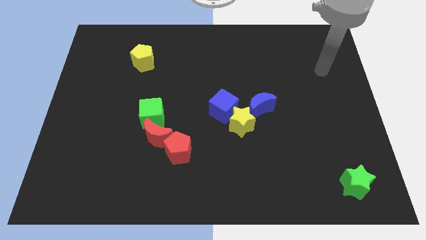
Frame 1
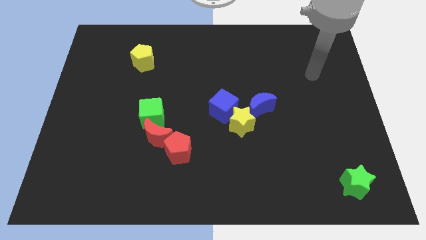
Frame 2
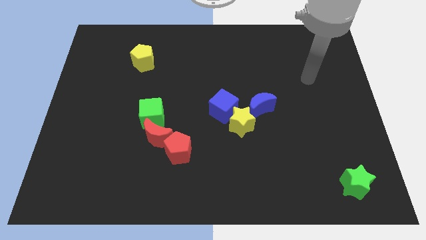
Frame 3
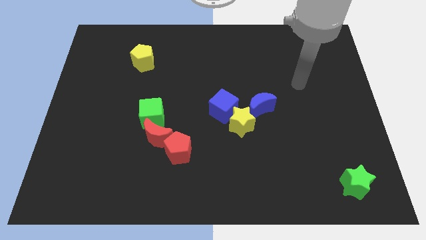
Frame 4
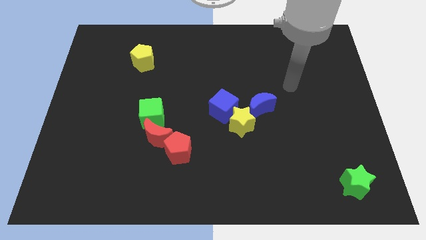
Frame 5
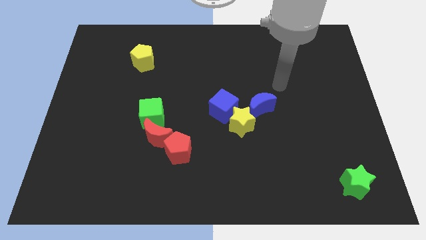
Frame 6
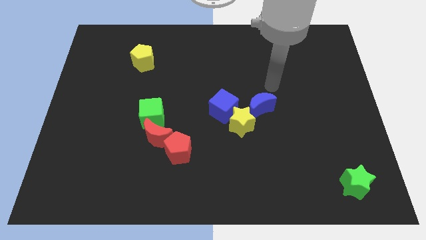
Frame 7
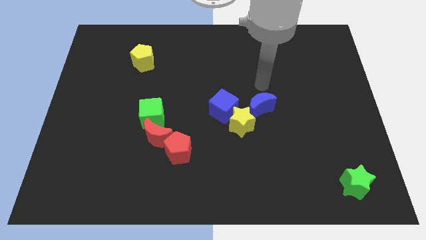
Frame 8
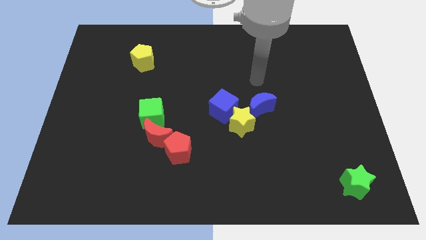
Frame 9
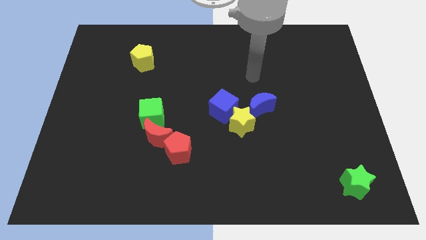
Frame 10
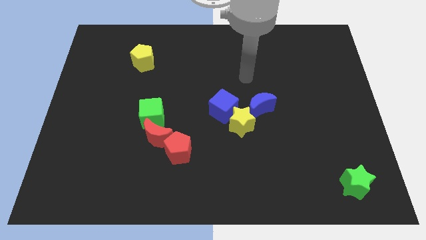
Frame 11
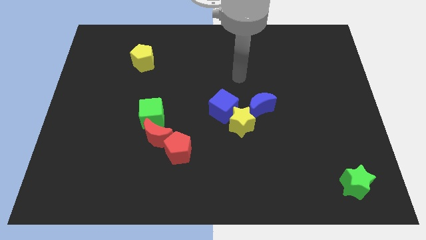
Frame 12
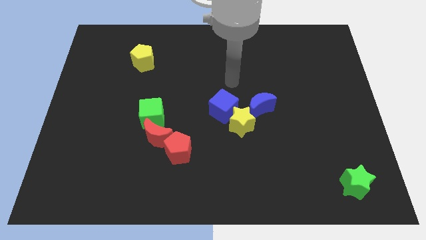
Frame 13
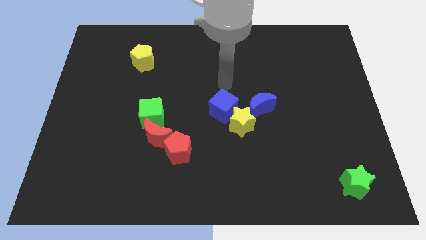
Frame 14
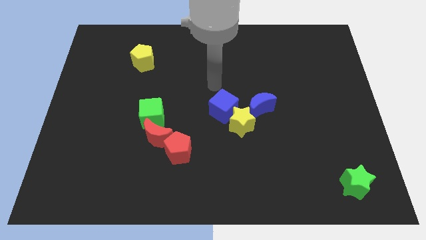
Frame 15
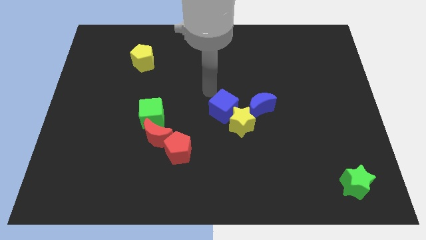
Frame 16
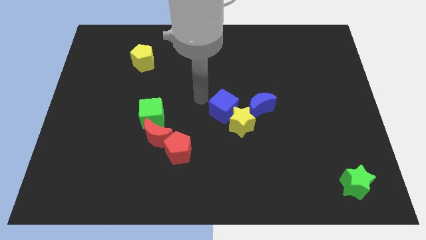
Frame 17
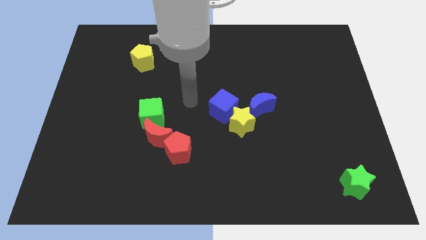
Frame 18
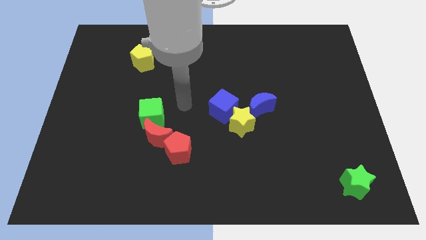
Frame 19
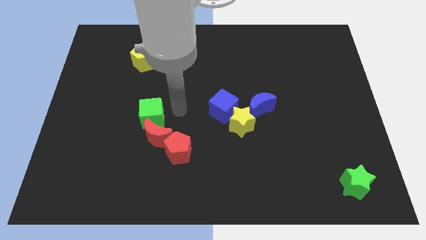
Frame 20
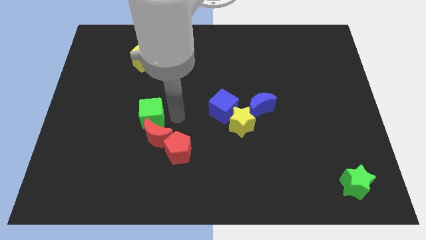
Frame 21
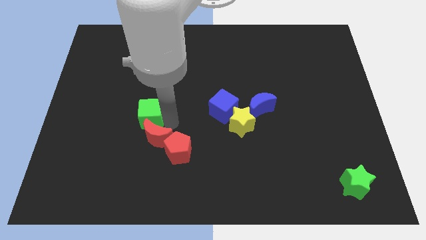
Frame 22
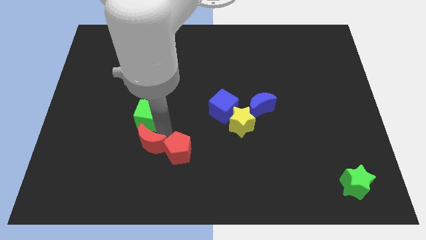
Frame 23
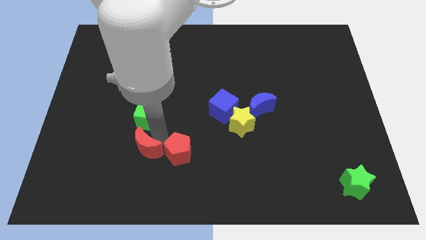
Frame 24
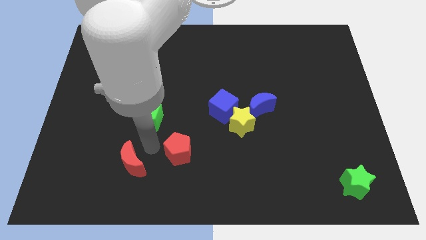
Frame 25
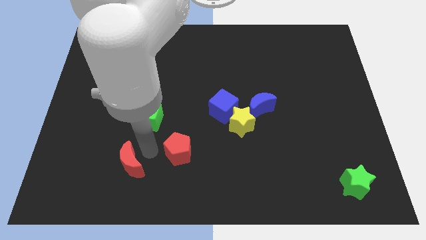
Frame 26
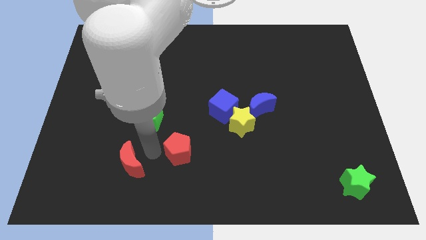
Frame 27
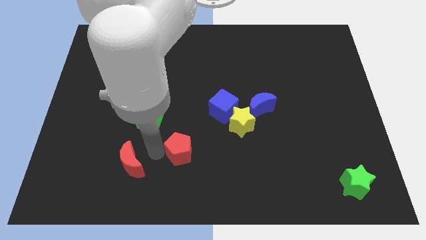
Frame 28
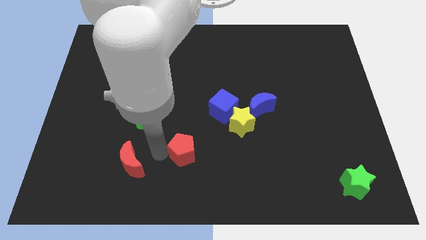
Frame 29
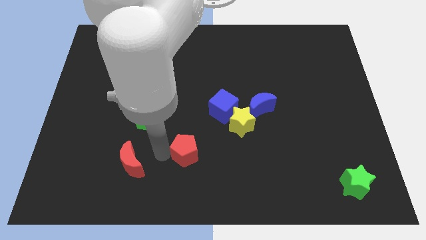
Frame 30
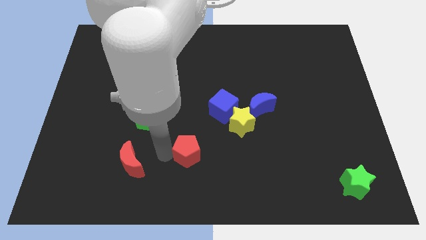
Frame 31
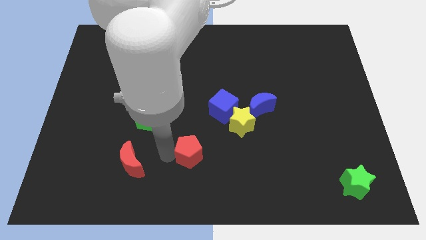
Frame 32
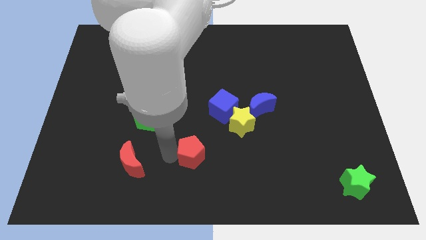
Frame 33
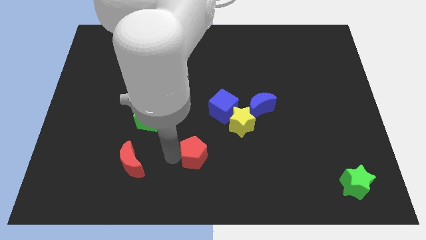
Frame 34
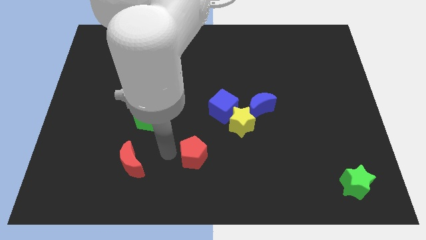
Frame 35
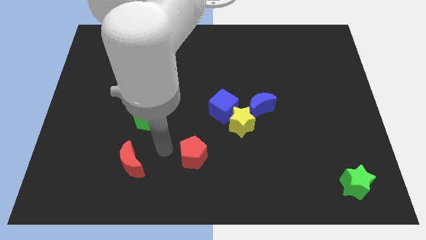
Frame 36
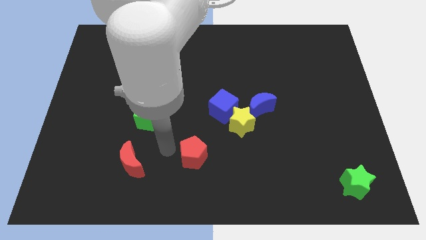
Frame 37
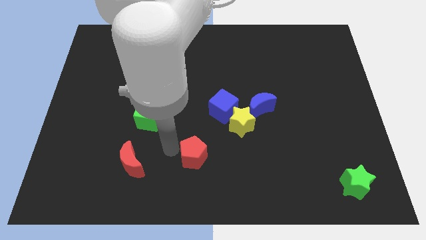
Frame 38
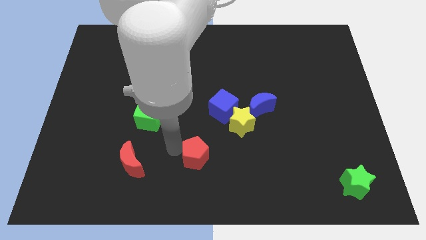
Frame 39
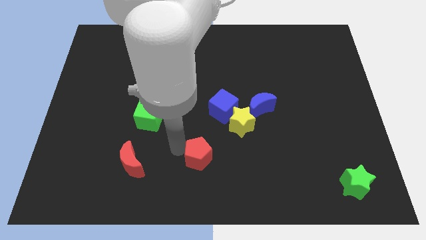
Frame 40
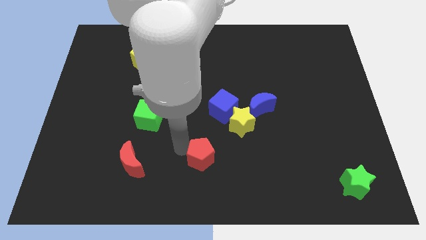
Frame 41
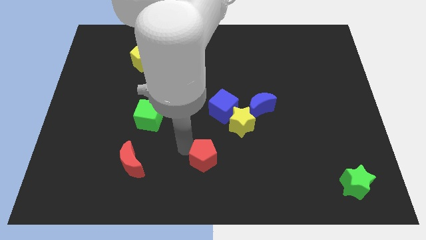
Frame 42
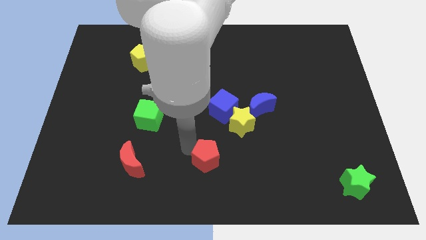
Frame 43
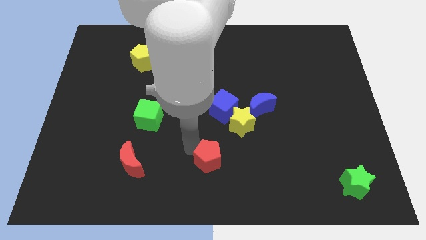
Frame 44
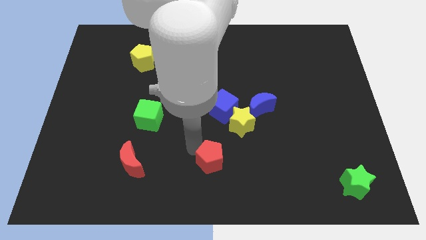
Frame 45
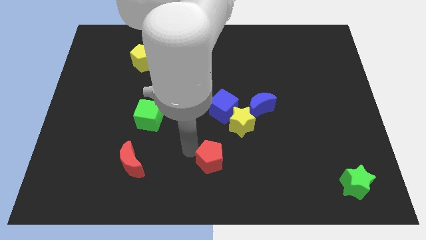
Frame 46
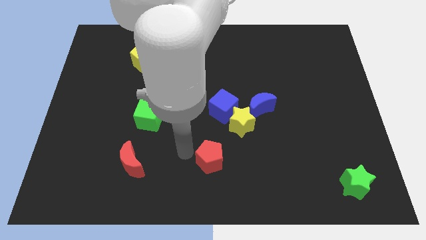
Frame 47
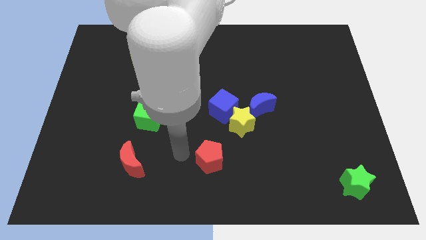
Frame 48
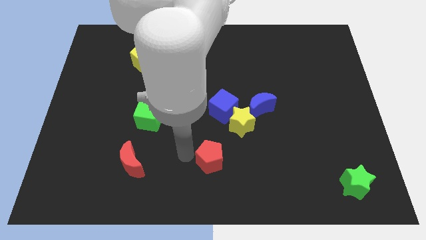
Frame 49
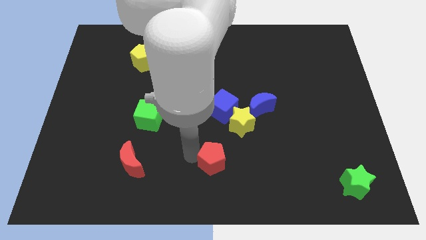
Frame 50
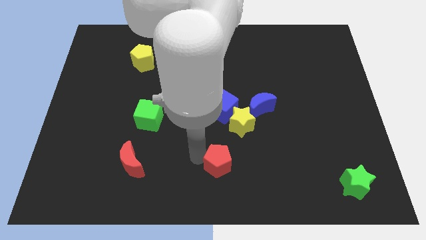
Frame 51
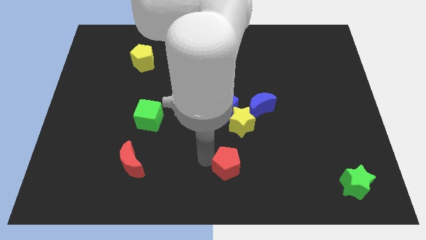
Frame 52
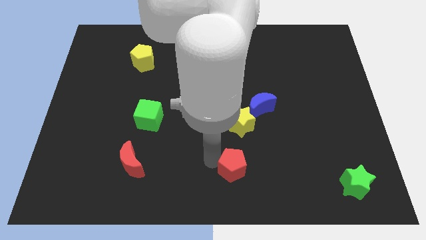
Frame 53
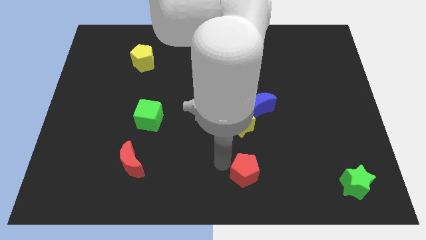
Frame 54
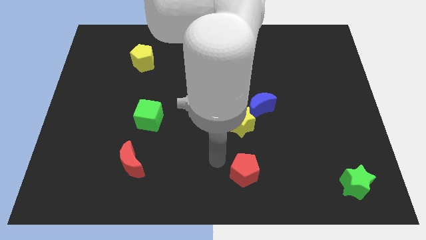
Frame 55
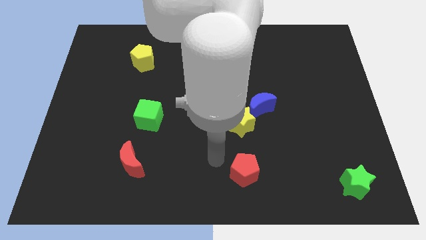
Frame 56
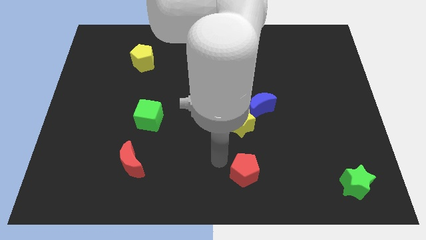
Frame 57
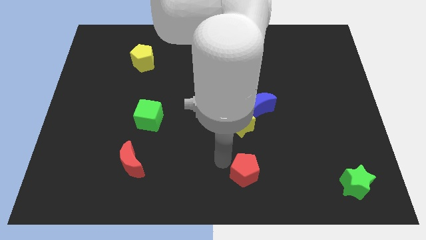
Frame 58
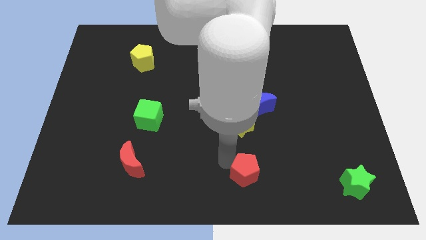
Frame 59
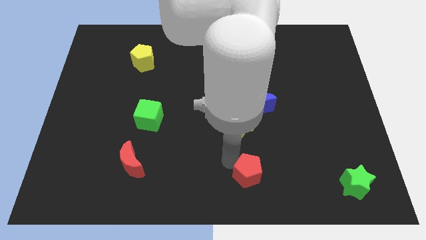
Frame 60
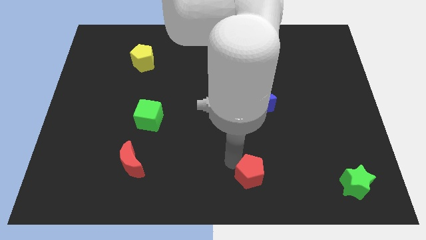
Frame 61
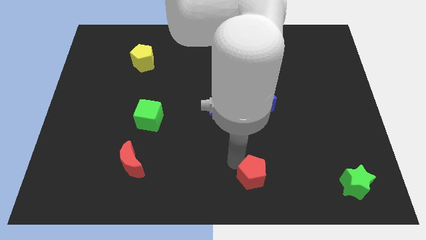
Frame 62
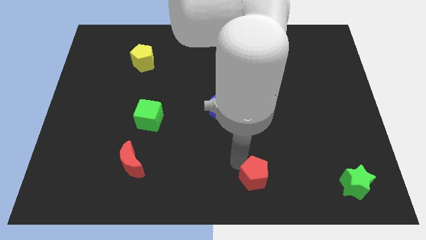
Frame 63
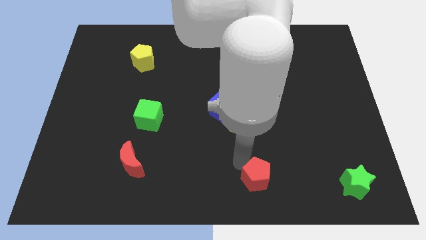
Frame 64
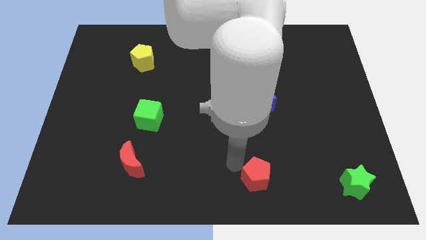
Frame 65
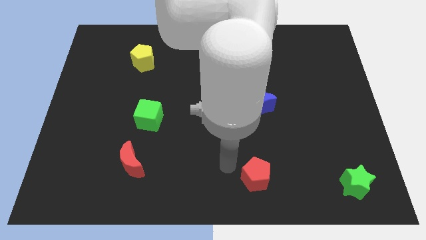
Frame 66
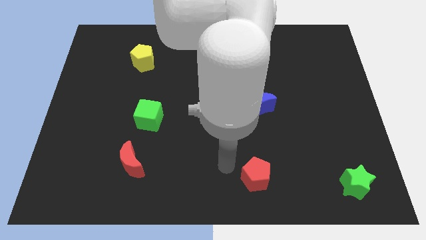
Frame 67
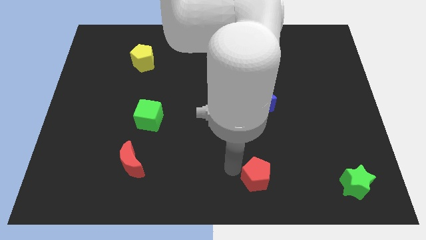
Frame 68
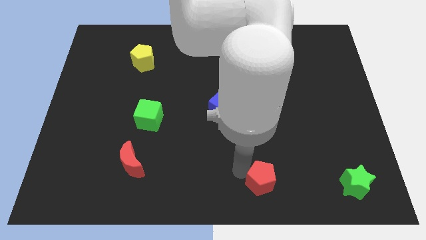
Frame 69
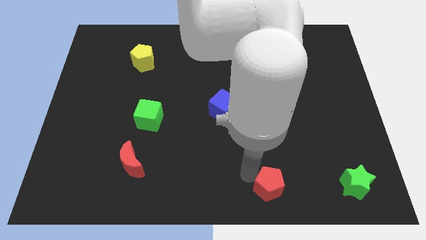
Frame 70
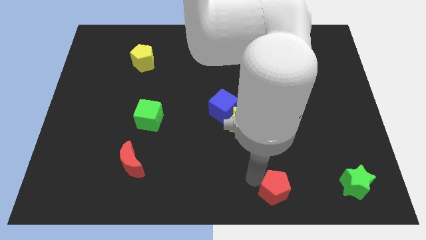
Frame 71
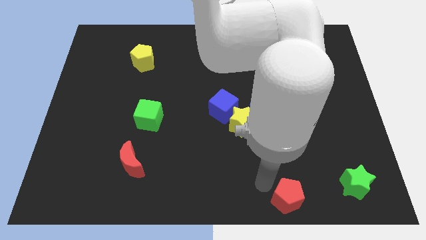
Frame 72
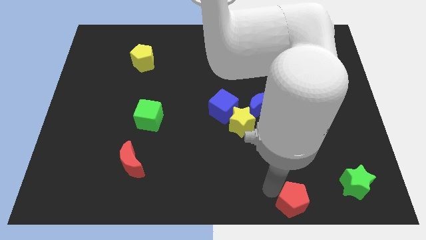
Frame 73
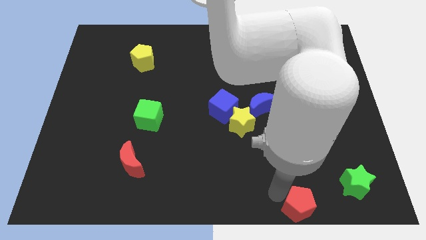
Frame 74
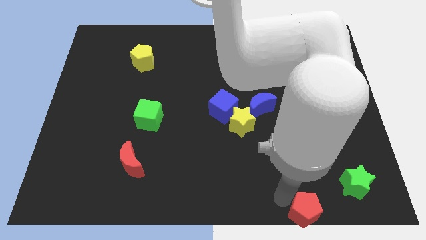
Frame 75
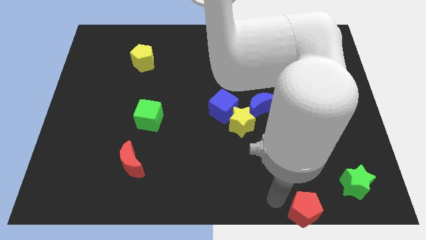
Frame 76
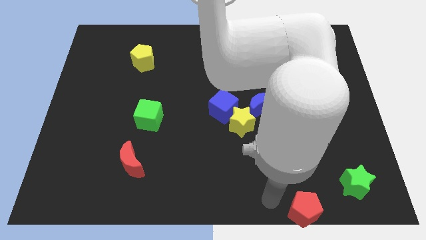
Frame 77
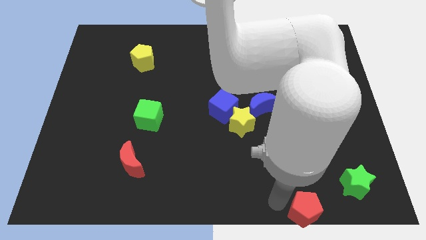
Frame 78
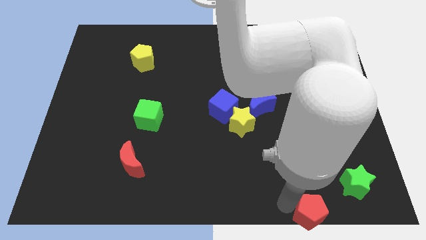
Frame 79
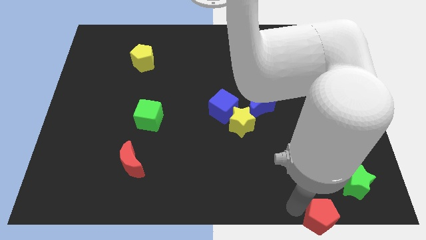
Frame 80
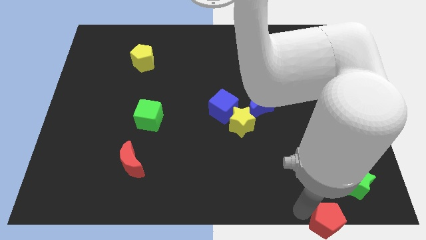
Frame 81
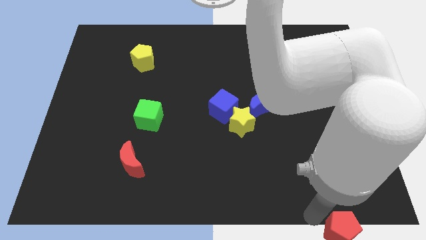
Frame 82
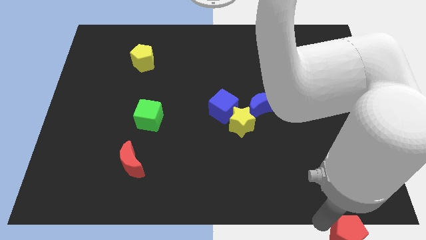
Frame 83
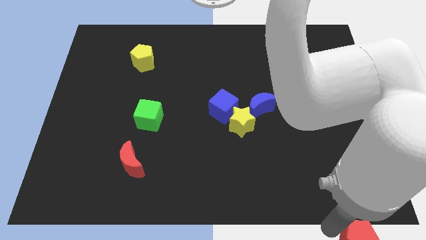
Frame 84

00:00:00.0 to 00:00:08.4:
move the red pentagon to the bottom right corner
